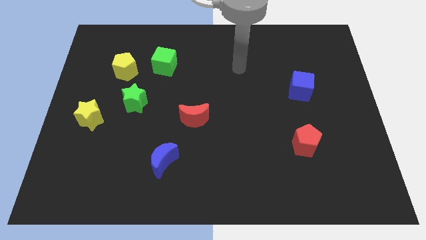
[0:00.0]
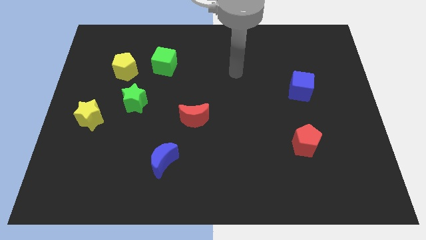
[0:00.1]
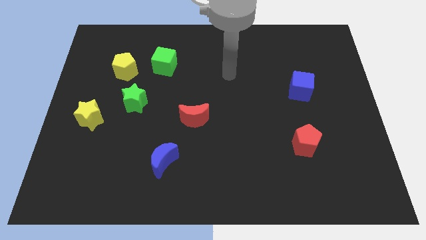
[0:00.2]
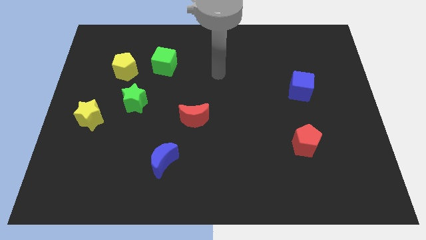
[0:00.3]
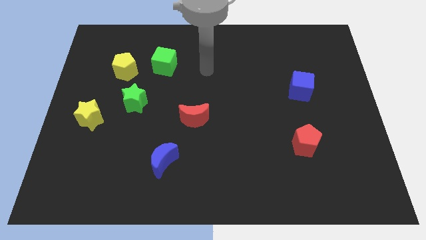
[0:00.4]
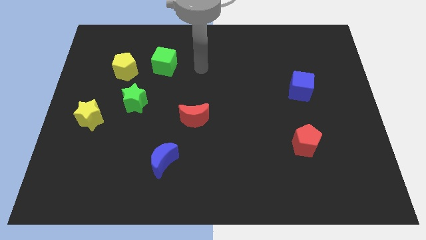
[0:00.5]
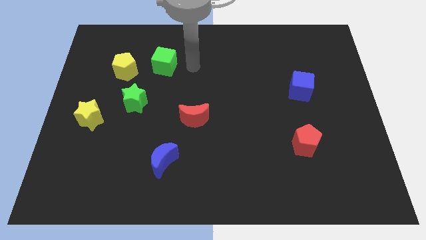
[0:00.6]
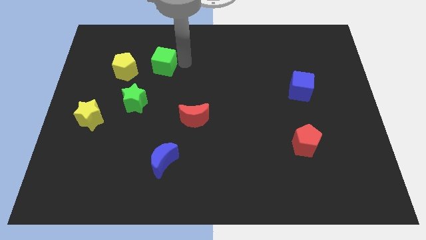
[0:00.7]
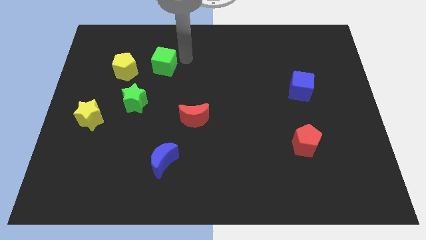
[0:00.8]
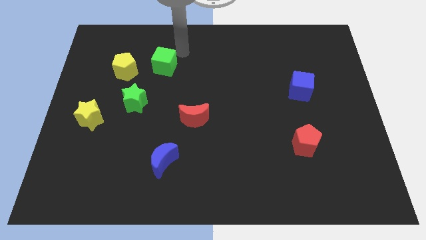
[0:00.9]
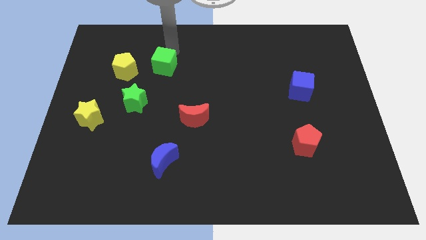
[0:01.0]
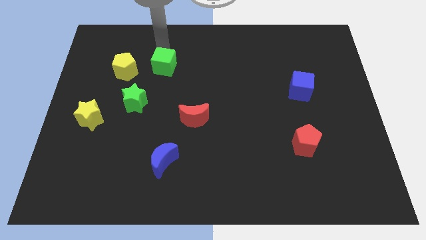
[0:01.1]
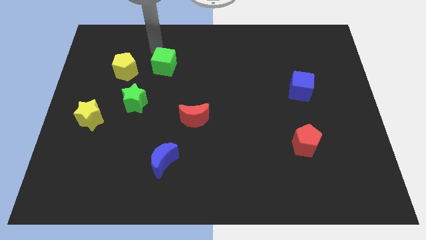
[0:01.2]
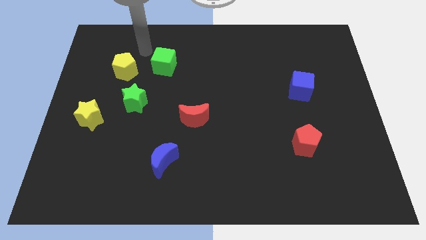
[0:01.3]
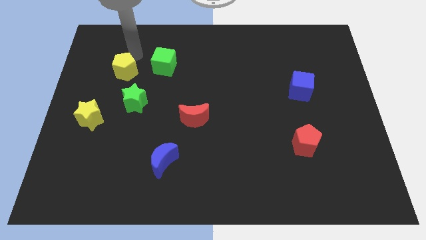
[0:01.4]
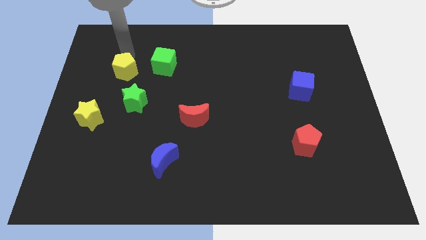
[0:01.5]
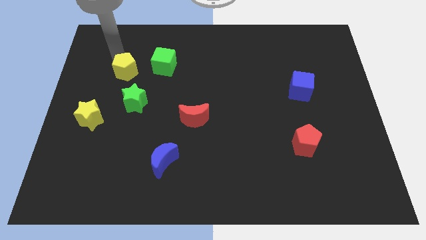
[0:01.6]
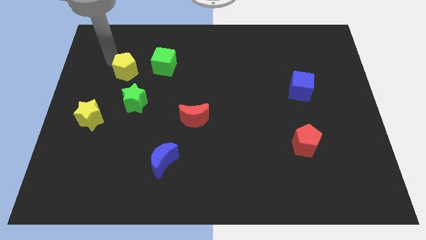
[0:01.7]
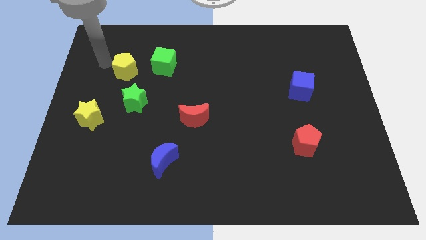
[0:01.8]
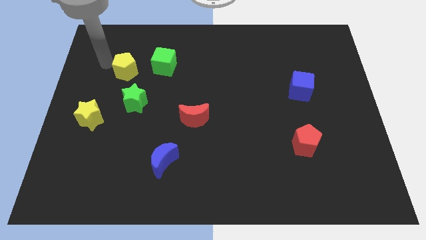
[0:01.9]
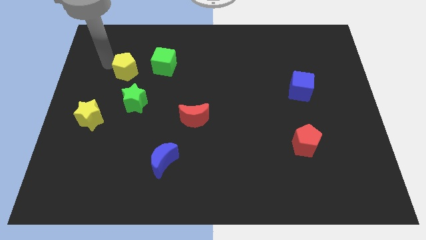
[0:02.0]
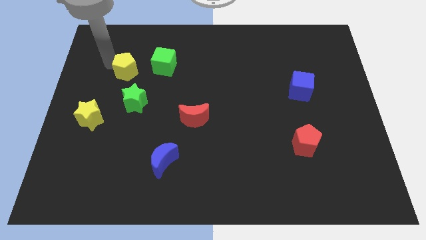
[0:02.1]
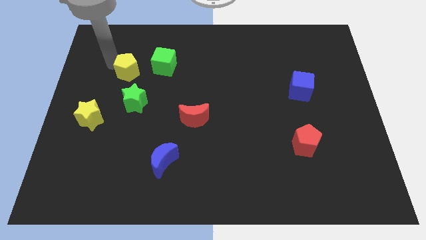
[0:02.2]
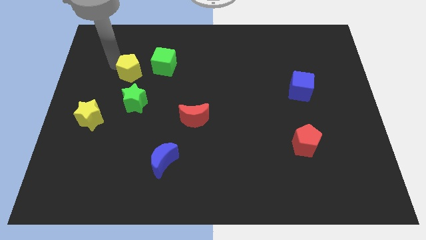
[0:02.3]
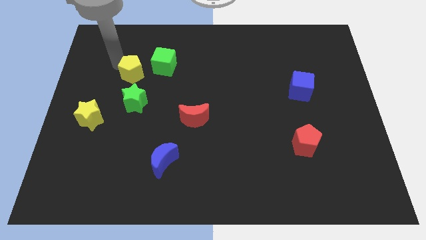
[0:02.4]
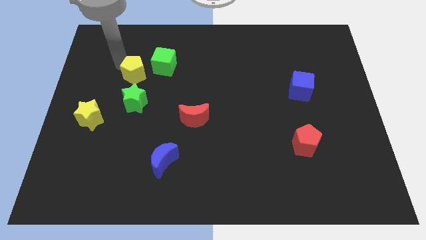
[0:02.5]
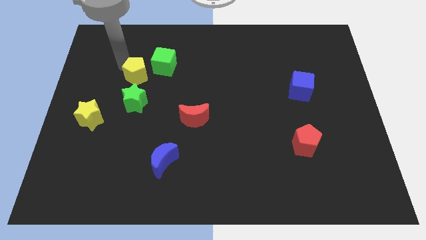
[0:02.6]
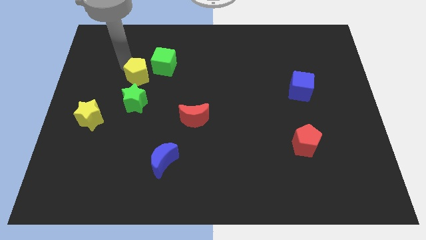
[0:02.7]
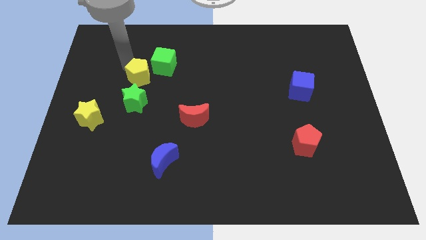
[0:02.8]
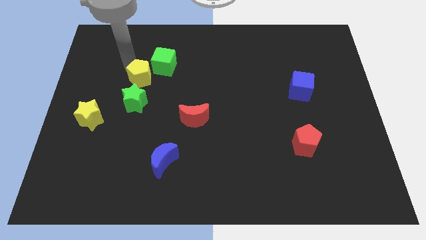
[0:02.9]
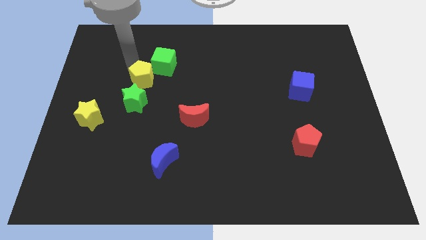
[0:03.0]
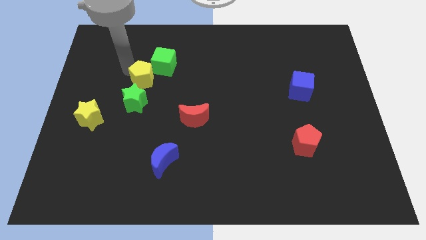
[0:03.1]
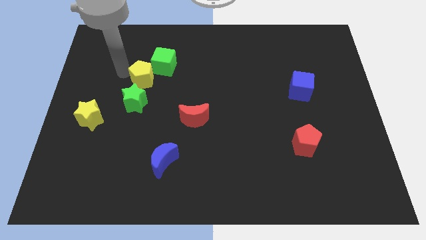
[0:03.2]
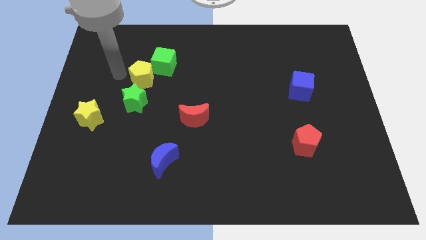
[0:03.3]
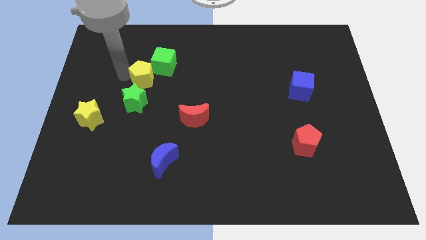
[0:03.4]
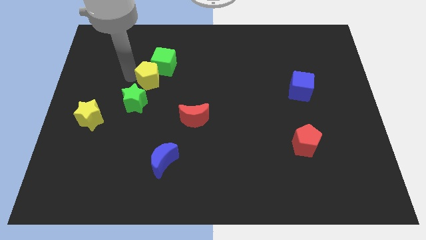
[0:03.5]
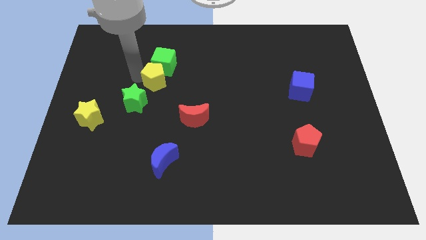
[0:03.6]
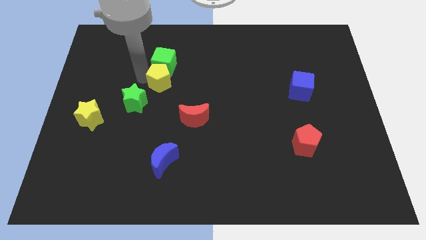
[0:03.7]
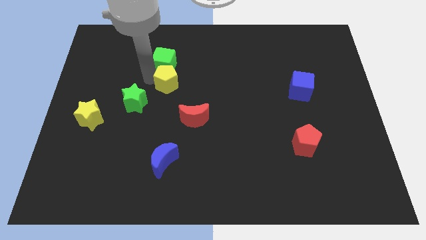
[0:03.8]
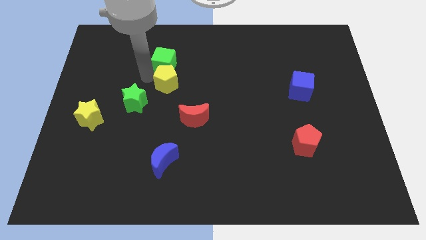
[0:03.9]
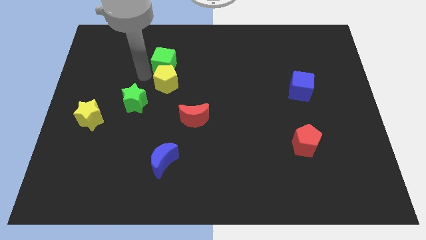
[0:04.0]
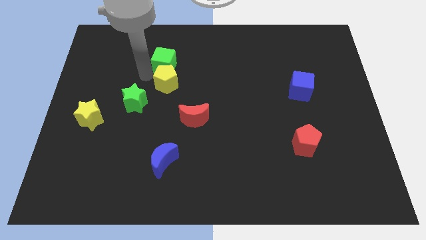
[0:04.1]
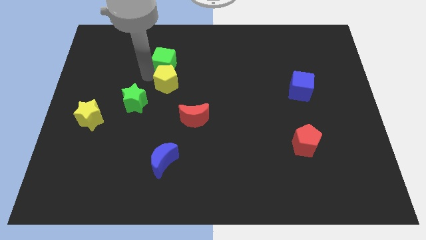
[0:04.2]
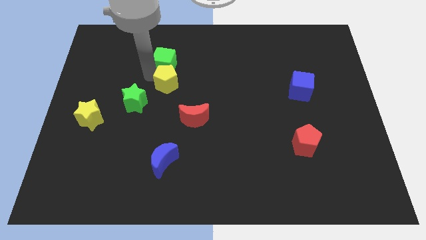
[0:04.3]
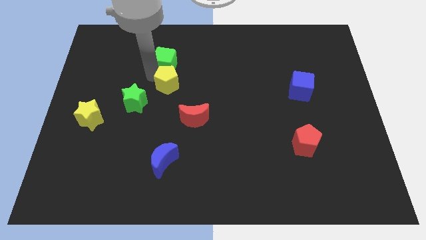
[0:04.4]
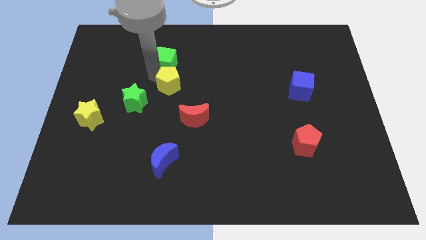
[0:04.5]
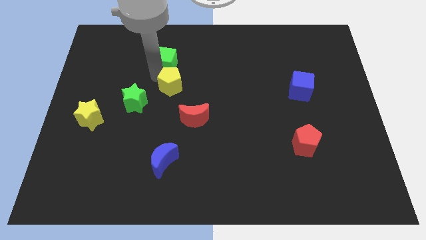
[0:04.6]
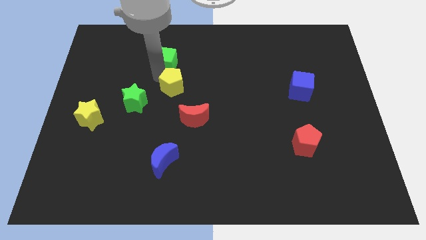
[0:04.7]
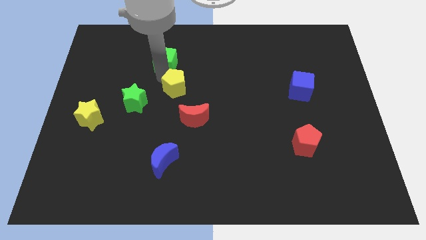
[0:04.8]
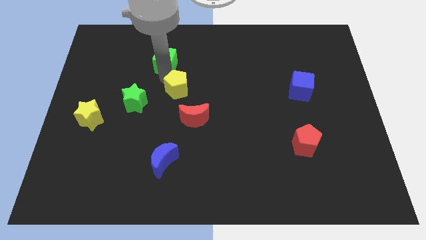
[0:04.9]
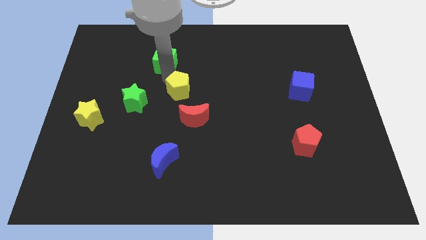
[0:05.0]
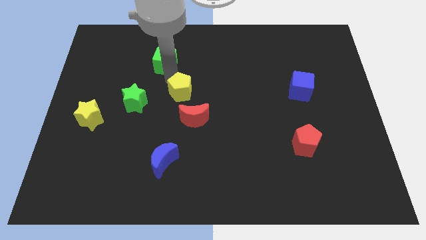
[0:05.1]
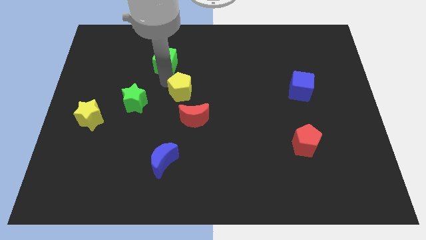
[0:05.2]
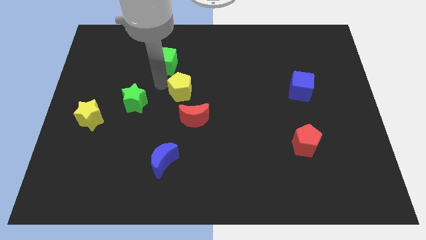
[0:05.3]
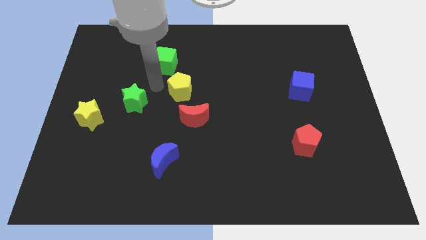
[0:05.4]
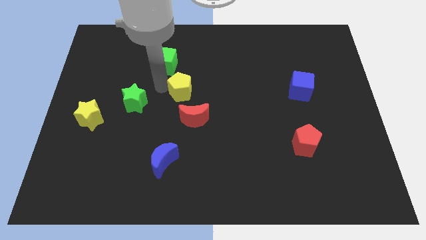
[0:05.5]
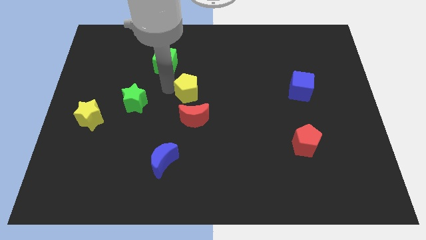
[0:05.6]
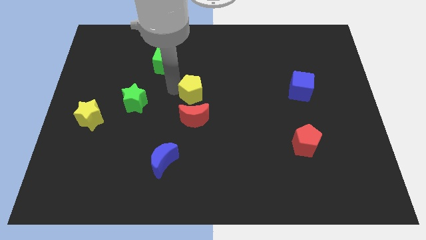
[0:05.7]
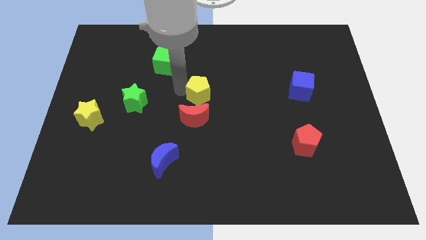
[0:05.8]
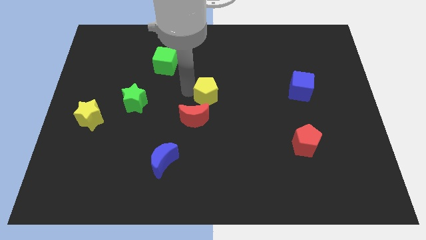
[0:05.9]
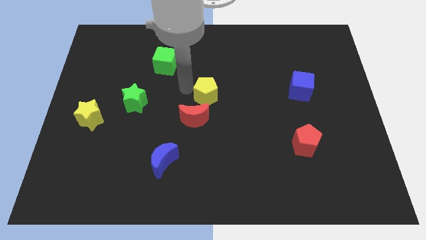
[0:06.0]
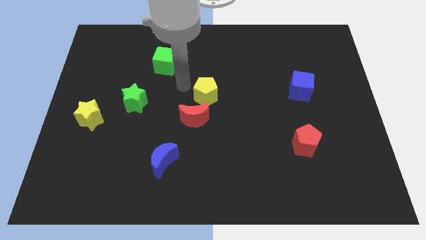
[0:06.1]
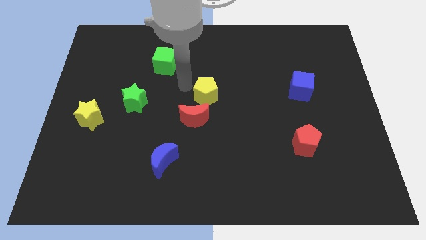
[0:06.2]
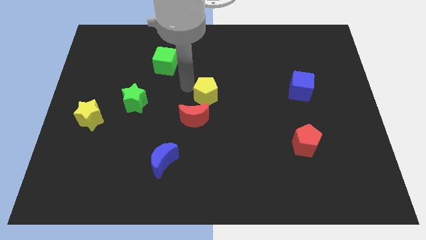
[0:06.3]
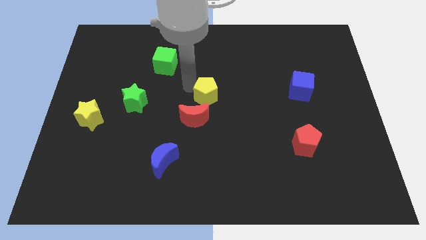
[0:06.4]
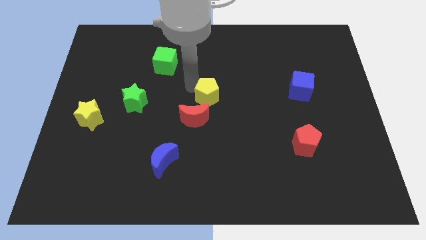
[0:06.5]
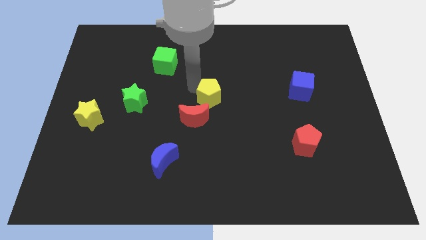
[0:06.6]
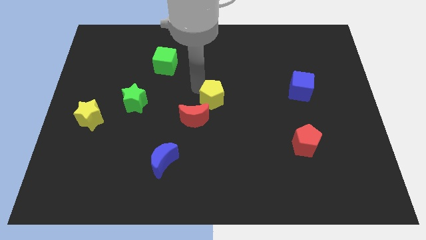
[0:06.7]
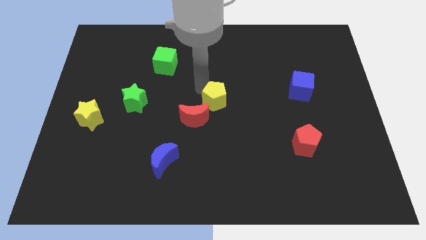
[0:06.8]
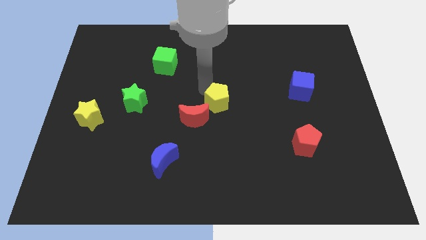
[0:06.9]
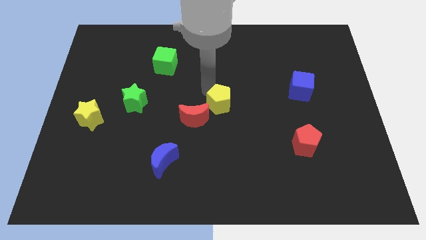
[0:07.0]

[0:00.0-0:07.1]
move the yellow pentagon to the right of the red moon

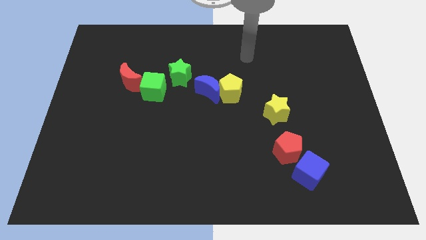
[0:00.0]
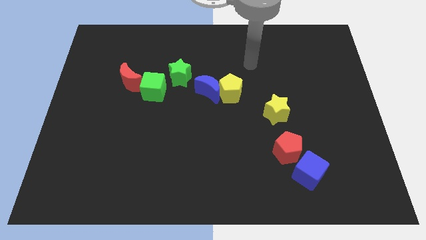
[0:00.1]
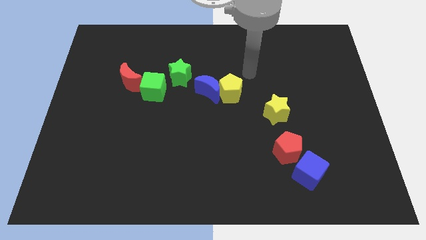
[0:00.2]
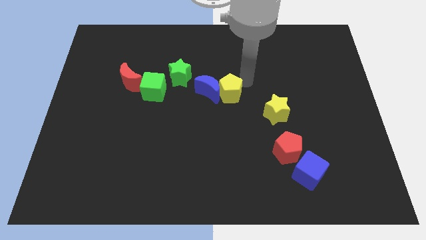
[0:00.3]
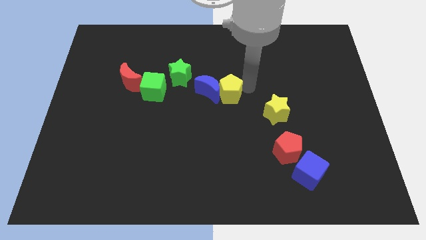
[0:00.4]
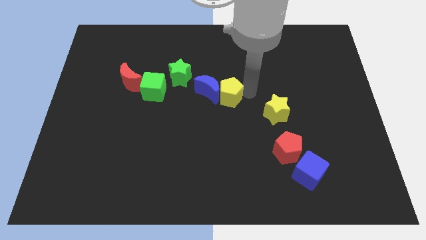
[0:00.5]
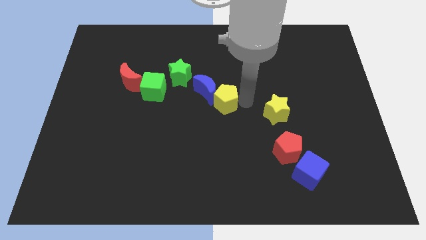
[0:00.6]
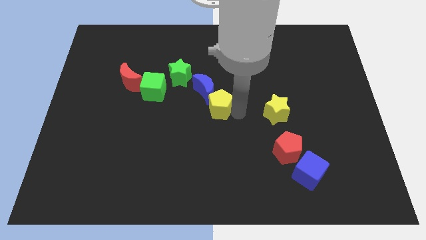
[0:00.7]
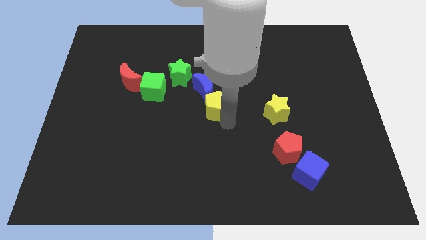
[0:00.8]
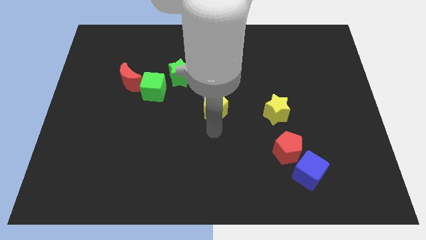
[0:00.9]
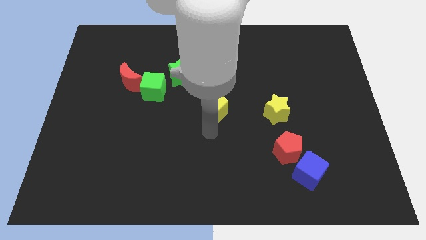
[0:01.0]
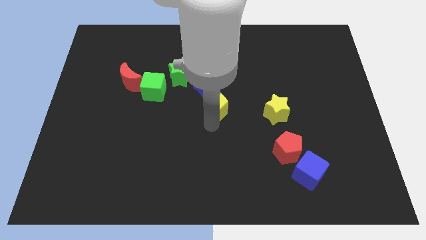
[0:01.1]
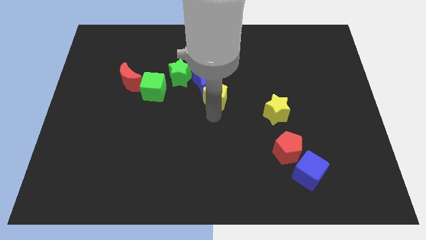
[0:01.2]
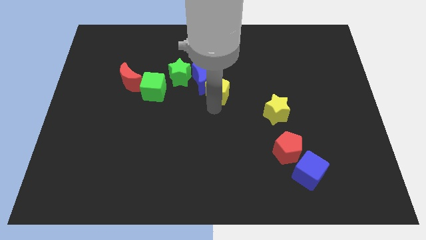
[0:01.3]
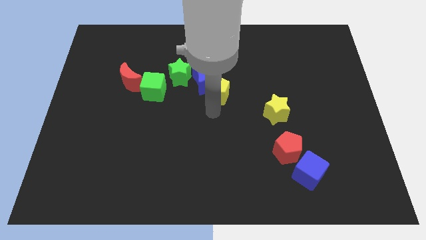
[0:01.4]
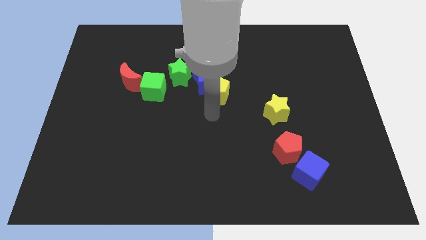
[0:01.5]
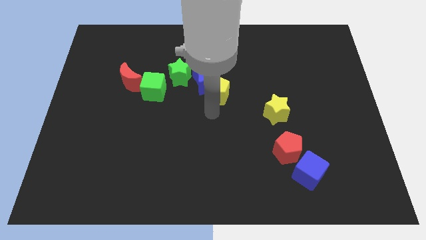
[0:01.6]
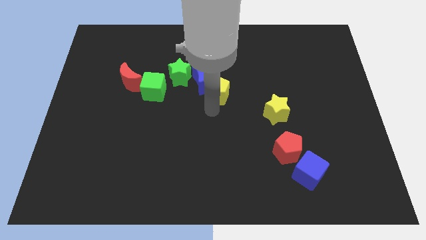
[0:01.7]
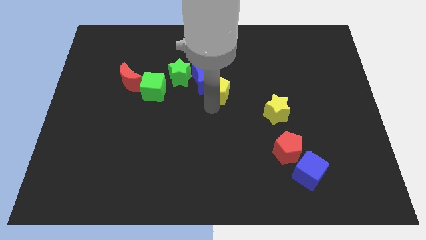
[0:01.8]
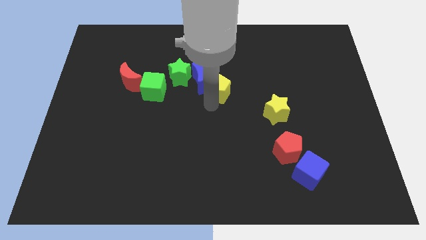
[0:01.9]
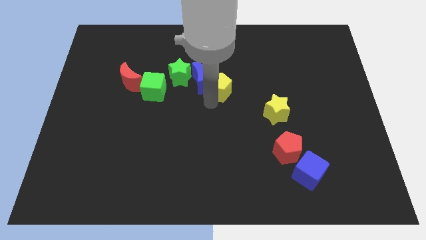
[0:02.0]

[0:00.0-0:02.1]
move the yellow pentagon just right of the green star
